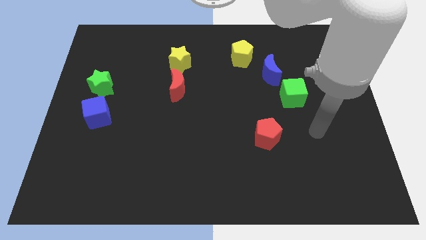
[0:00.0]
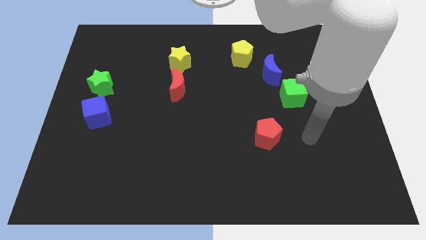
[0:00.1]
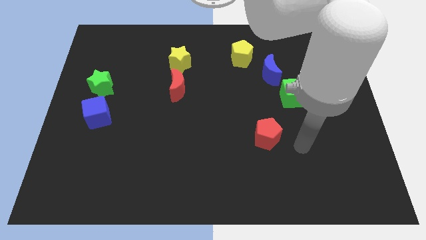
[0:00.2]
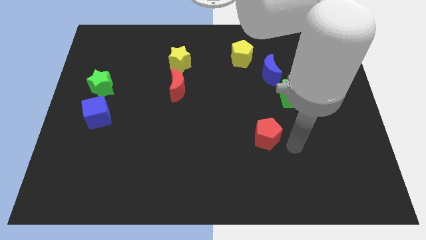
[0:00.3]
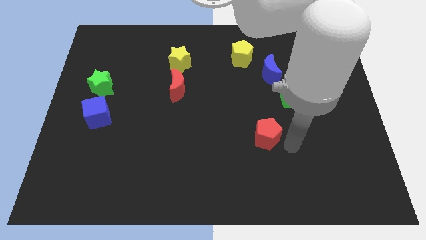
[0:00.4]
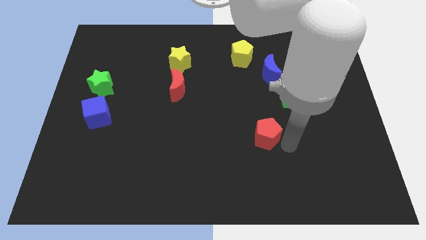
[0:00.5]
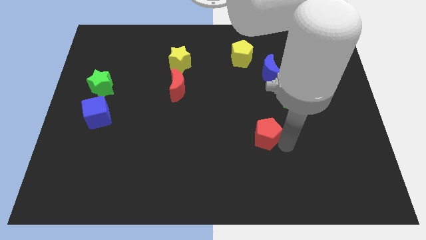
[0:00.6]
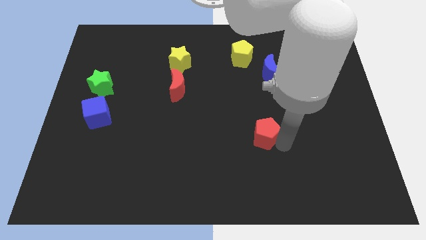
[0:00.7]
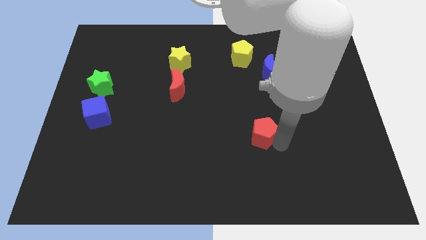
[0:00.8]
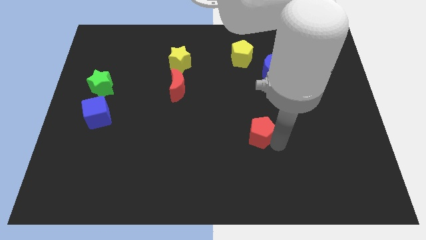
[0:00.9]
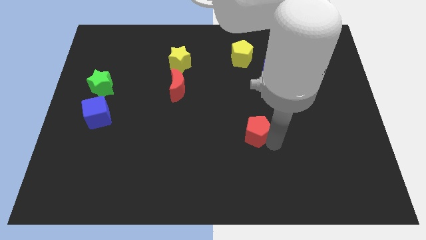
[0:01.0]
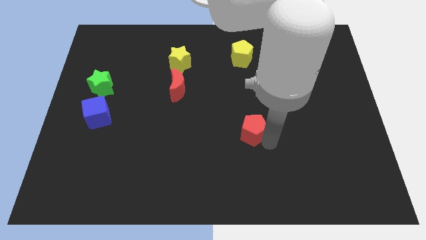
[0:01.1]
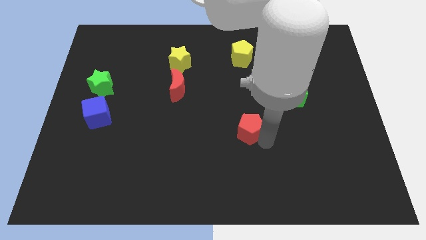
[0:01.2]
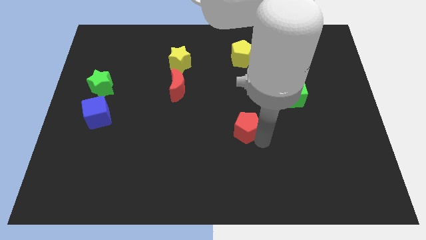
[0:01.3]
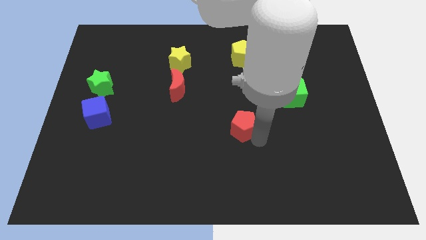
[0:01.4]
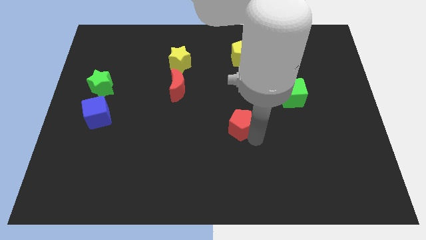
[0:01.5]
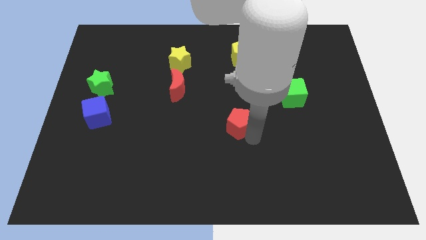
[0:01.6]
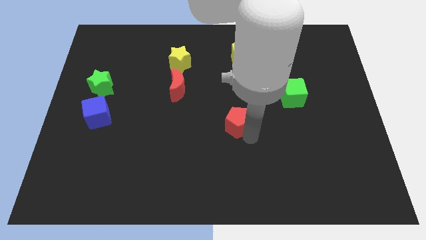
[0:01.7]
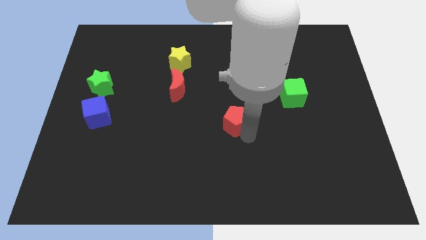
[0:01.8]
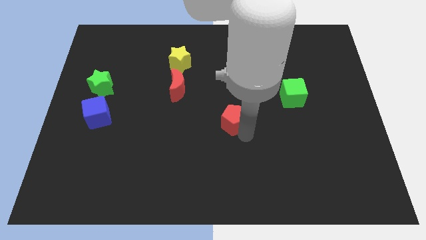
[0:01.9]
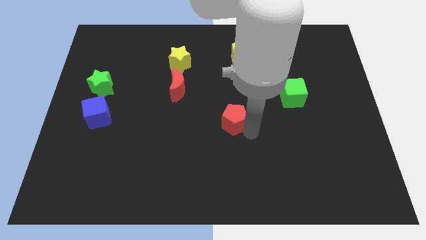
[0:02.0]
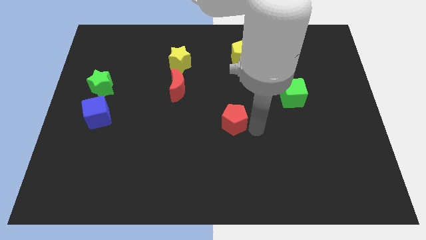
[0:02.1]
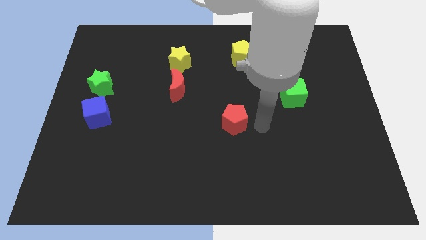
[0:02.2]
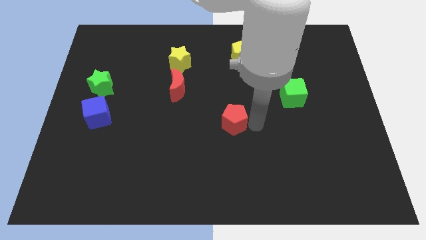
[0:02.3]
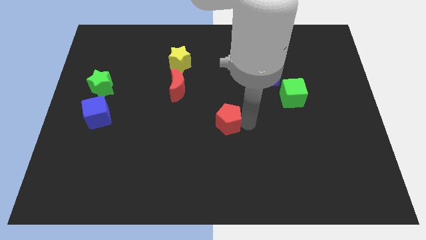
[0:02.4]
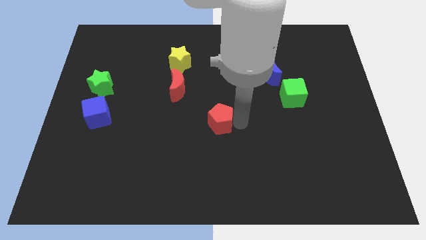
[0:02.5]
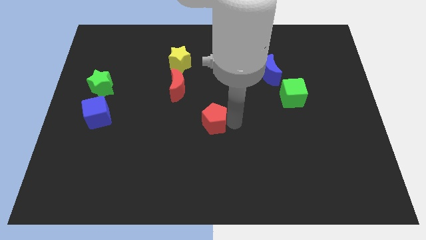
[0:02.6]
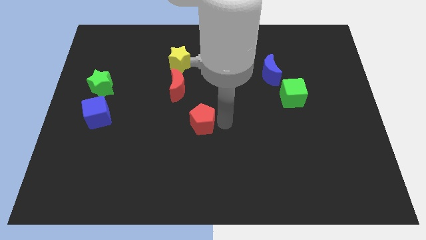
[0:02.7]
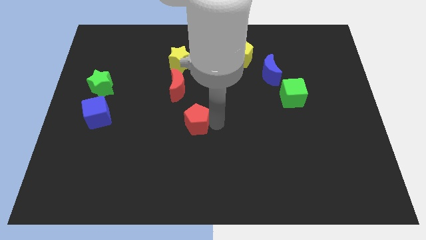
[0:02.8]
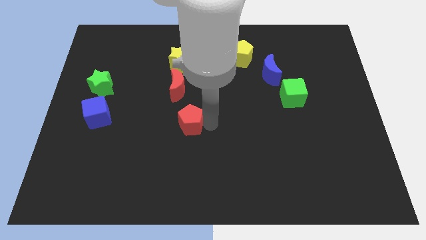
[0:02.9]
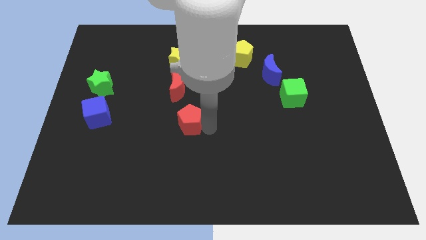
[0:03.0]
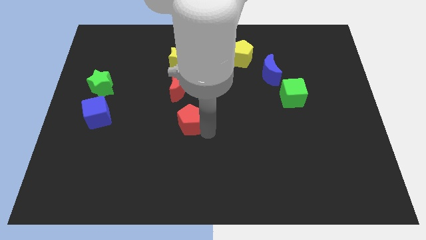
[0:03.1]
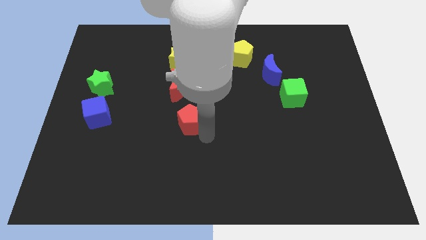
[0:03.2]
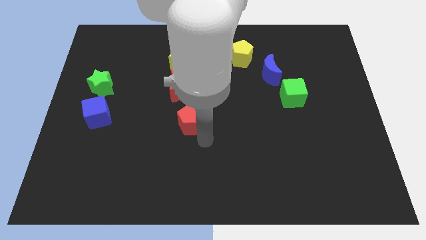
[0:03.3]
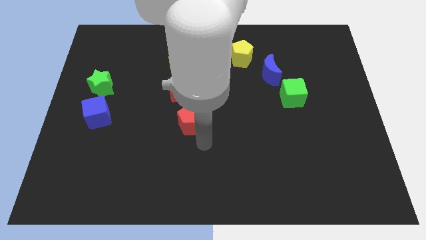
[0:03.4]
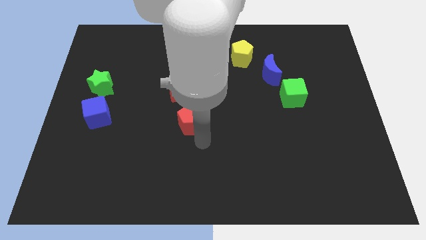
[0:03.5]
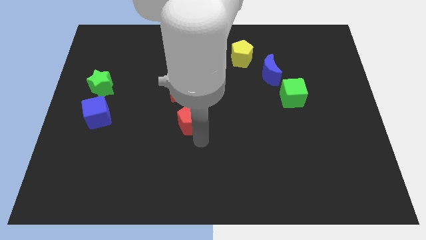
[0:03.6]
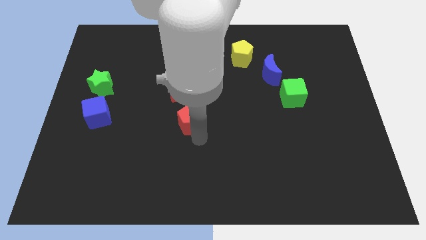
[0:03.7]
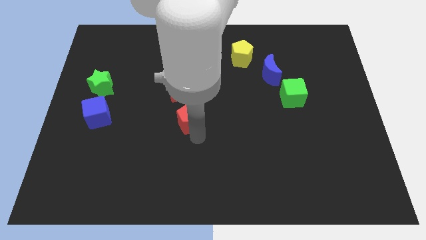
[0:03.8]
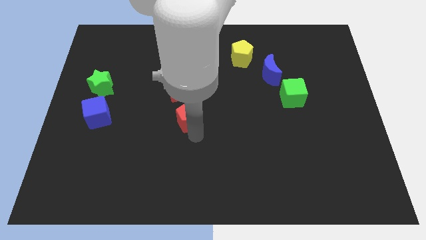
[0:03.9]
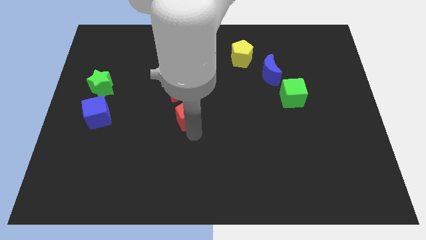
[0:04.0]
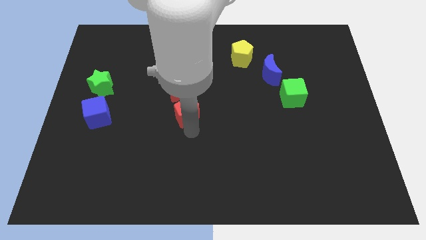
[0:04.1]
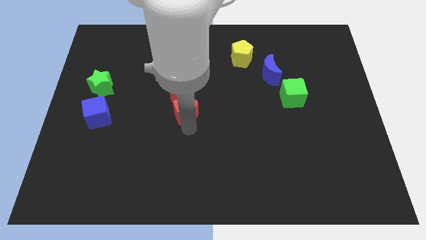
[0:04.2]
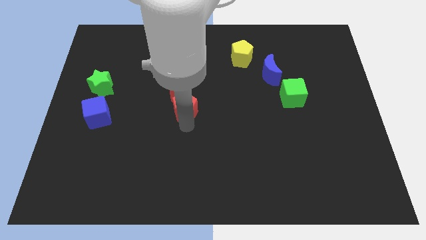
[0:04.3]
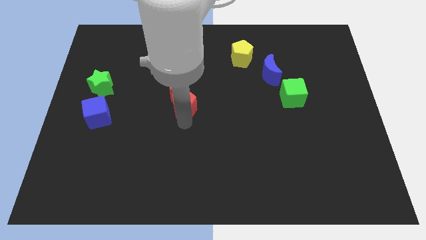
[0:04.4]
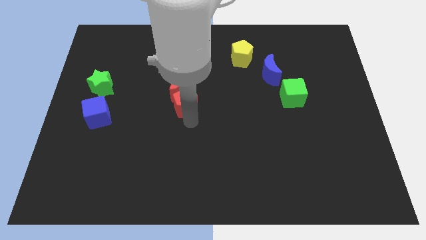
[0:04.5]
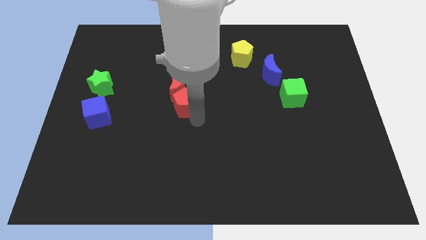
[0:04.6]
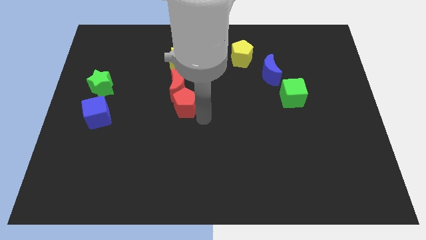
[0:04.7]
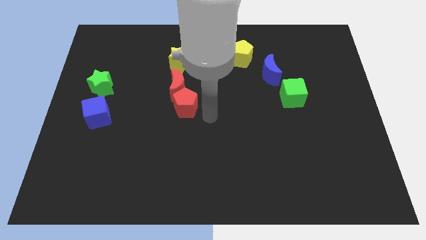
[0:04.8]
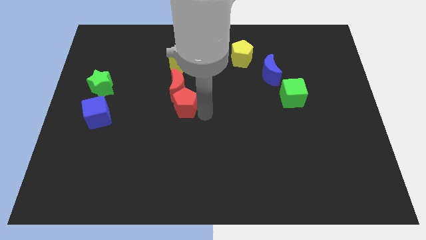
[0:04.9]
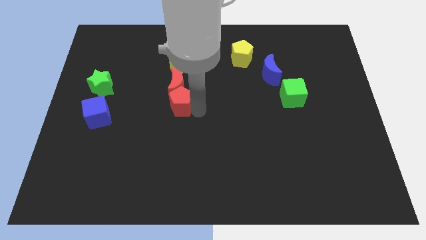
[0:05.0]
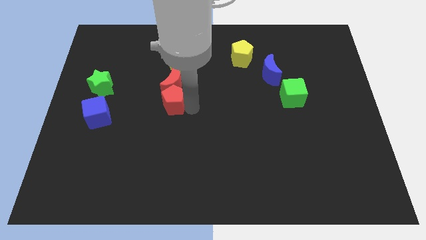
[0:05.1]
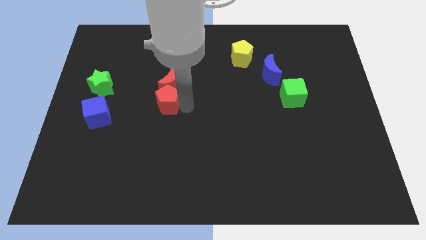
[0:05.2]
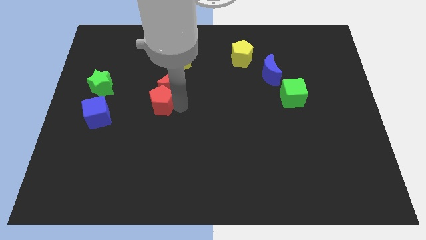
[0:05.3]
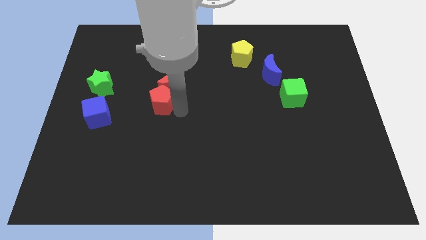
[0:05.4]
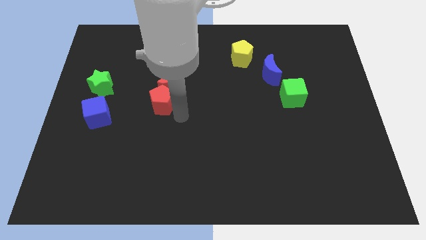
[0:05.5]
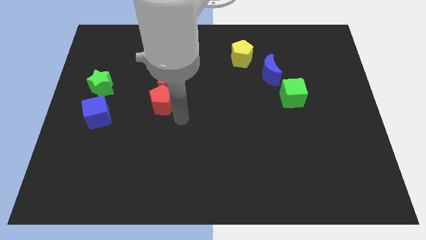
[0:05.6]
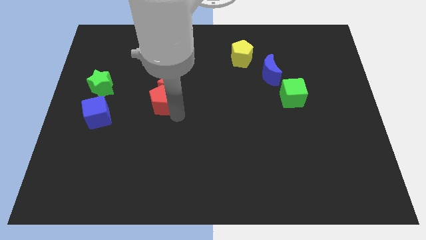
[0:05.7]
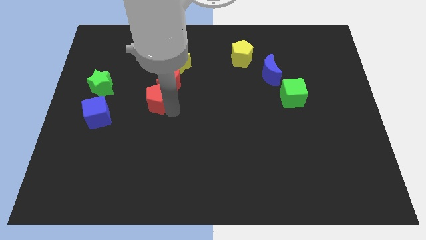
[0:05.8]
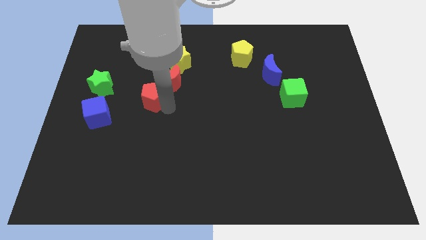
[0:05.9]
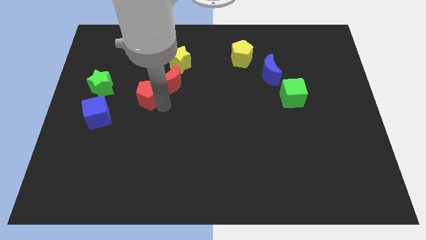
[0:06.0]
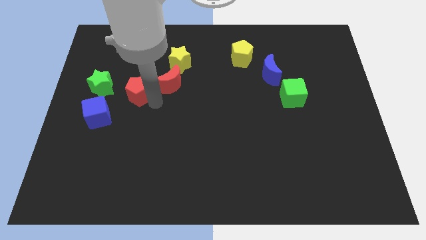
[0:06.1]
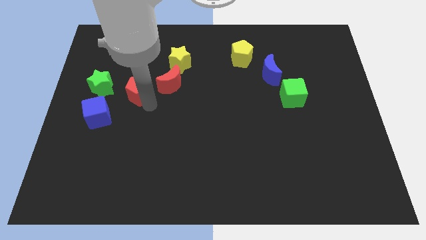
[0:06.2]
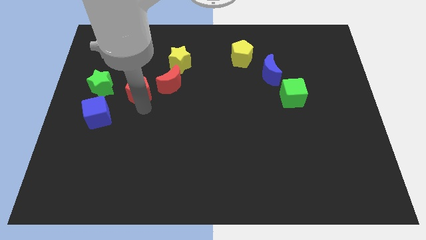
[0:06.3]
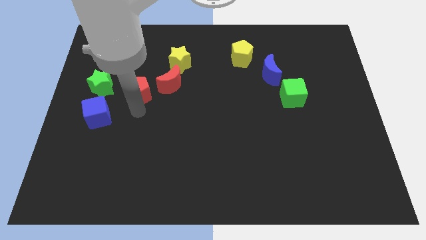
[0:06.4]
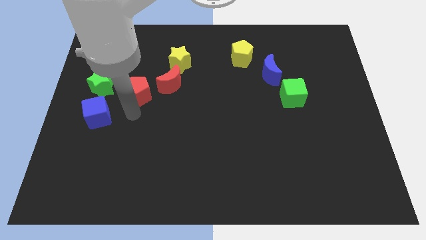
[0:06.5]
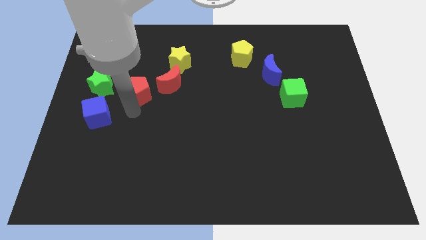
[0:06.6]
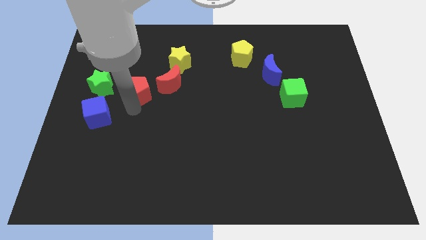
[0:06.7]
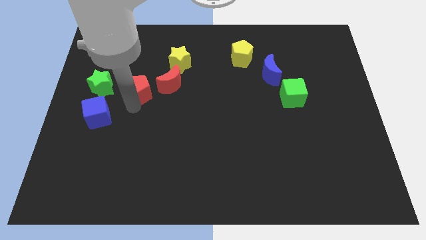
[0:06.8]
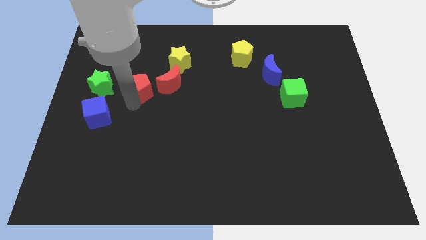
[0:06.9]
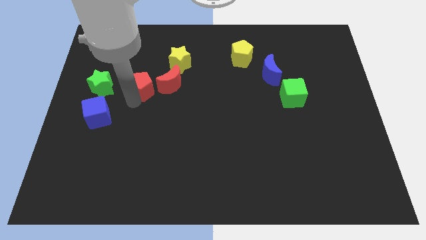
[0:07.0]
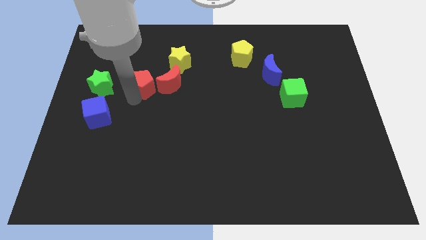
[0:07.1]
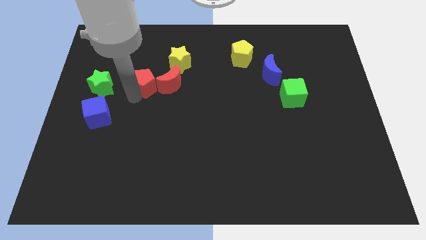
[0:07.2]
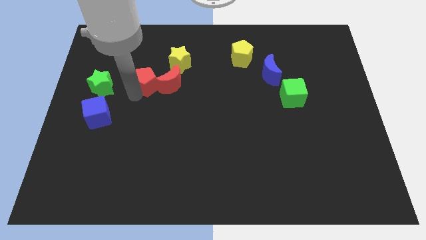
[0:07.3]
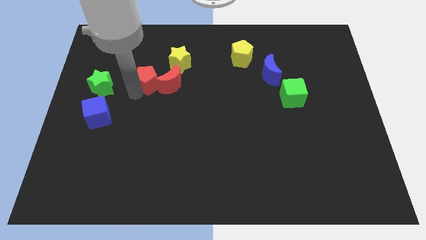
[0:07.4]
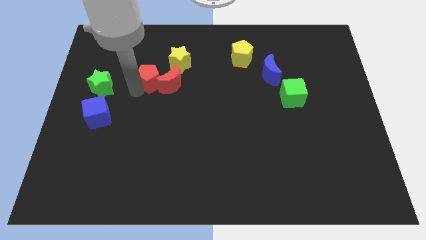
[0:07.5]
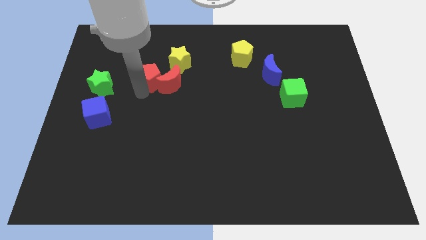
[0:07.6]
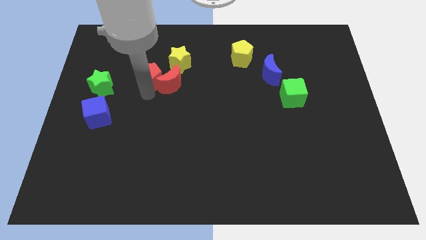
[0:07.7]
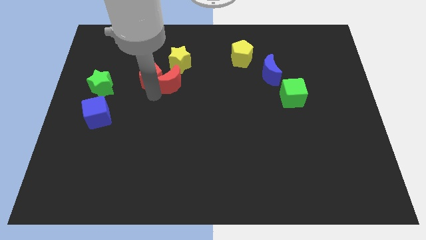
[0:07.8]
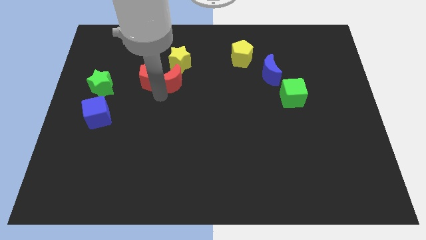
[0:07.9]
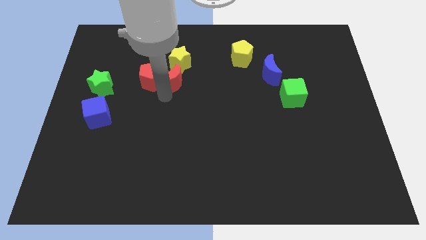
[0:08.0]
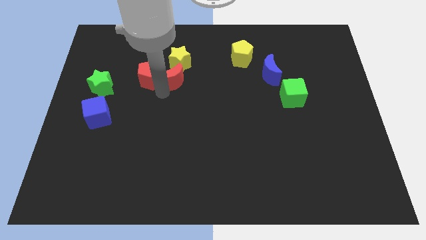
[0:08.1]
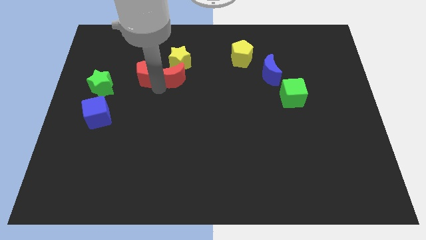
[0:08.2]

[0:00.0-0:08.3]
slide the red pentagon to the left of the yellow star
